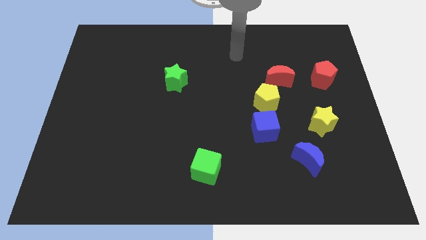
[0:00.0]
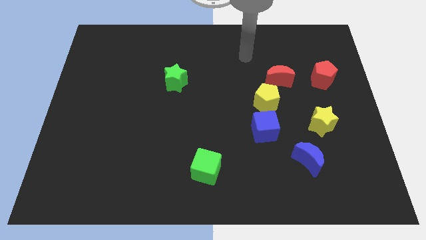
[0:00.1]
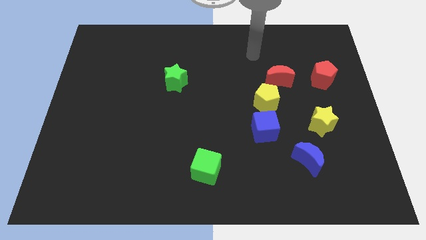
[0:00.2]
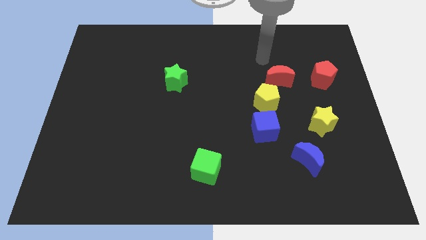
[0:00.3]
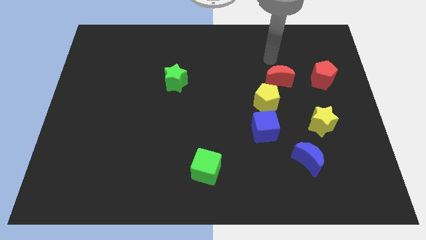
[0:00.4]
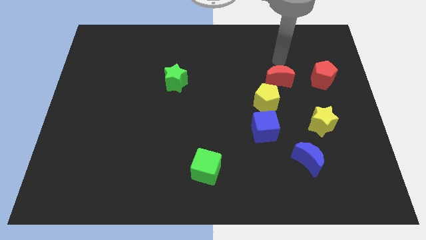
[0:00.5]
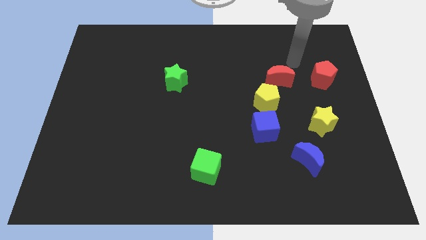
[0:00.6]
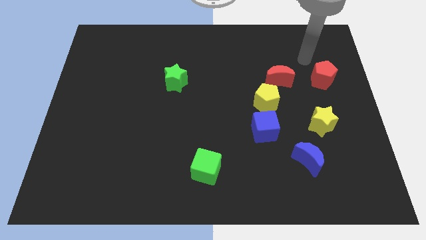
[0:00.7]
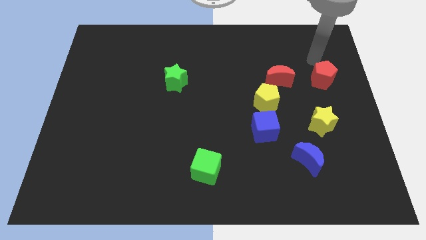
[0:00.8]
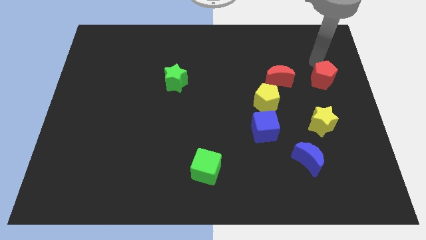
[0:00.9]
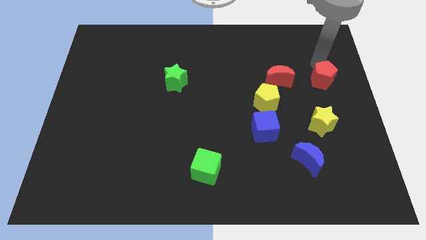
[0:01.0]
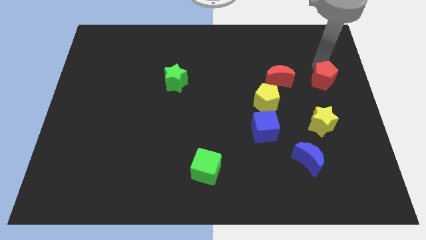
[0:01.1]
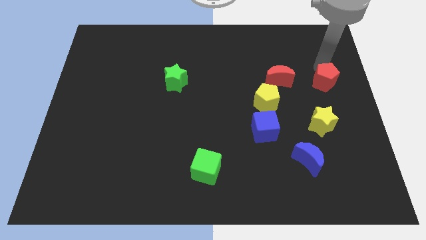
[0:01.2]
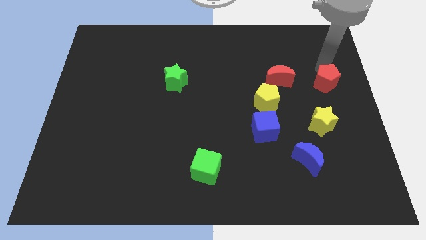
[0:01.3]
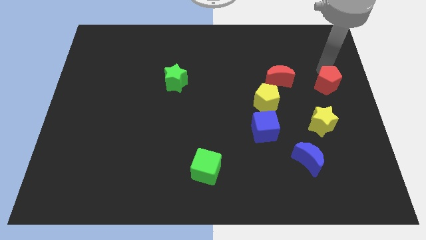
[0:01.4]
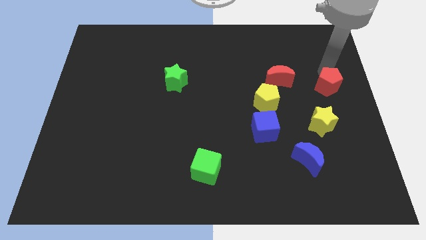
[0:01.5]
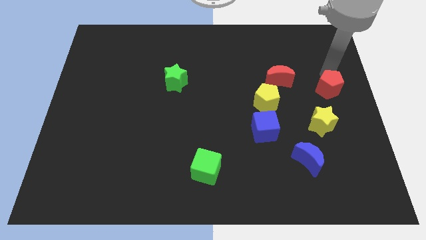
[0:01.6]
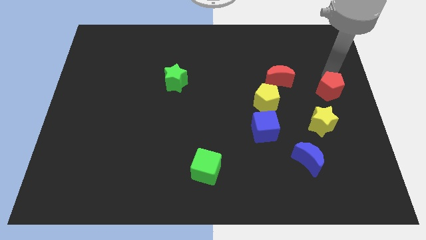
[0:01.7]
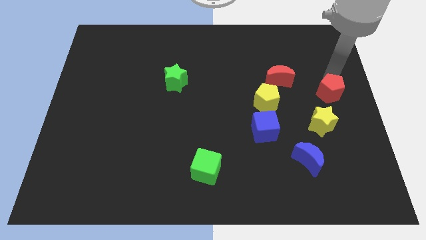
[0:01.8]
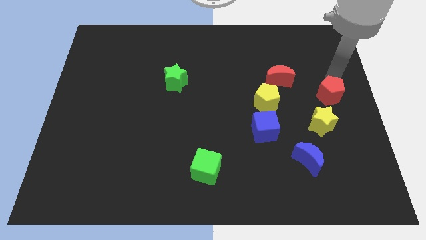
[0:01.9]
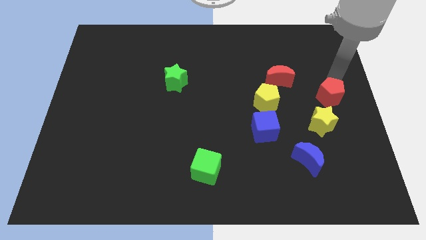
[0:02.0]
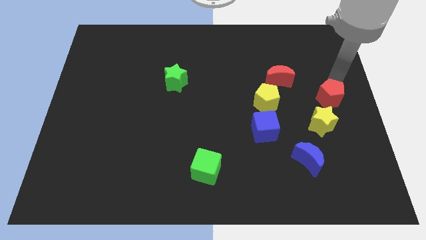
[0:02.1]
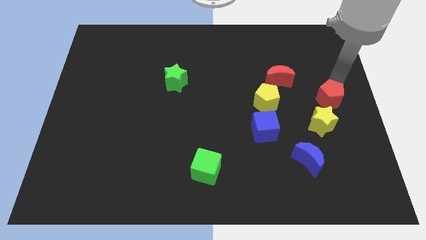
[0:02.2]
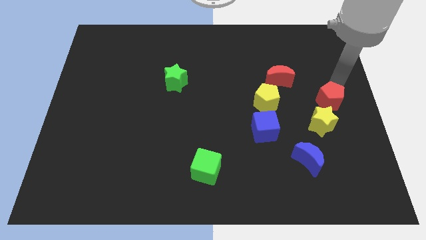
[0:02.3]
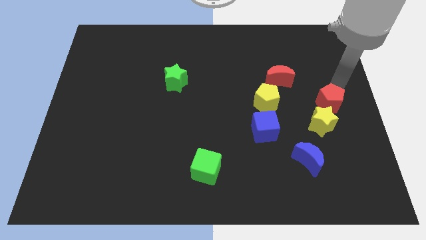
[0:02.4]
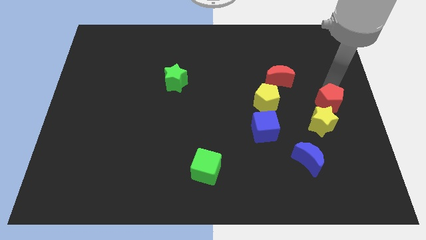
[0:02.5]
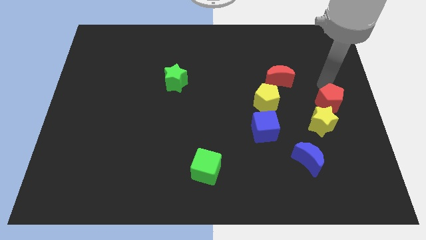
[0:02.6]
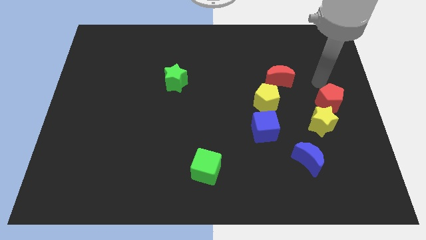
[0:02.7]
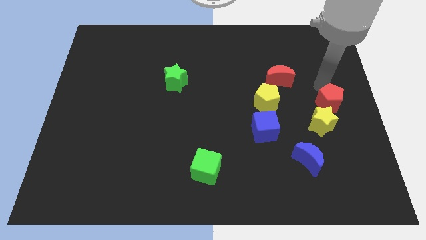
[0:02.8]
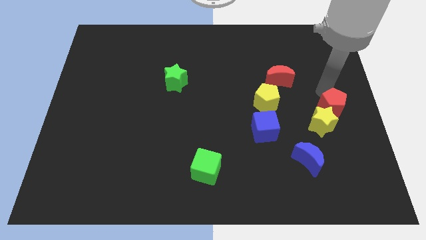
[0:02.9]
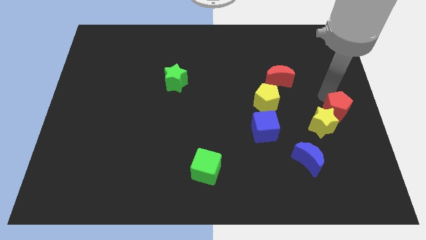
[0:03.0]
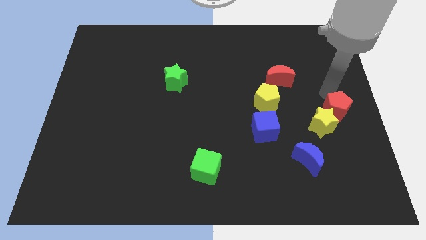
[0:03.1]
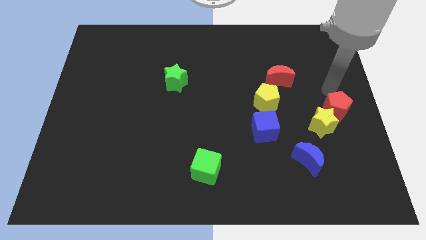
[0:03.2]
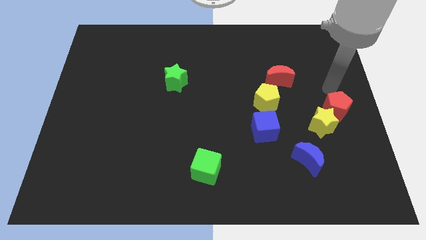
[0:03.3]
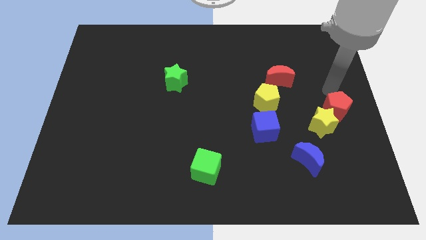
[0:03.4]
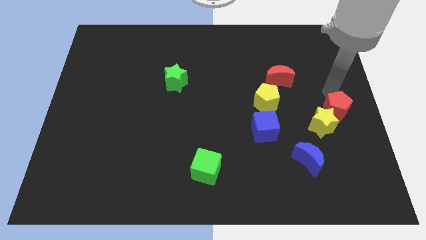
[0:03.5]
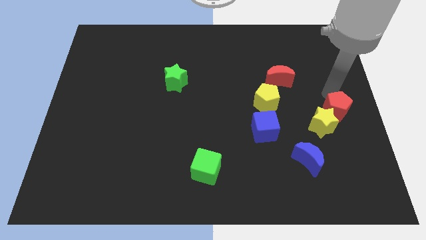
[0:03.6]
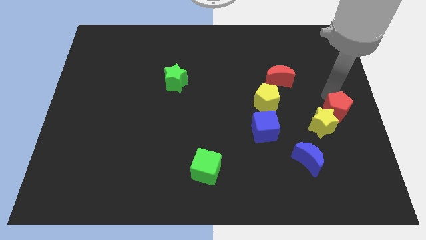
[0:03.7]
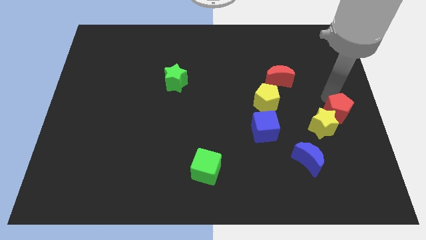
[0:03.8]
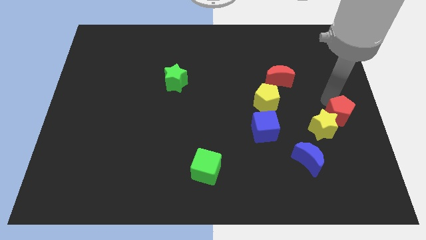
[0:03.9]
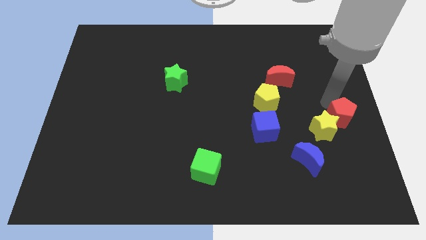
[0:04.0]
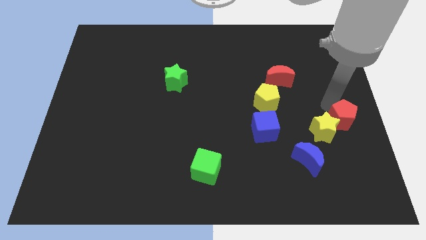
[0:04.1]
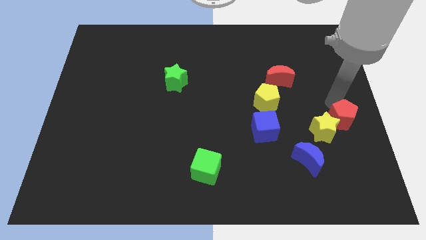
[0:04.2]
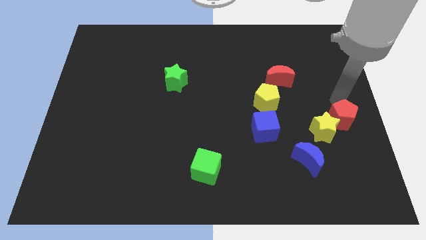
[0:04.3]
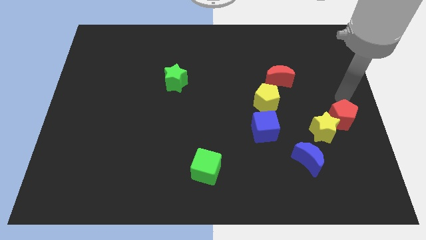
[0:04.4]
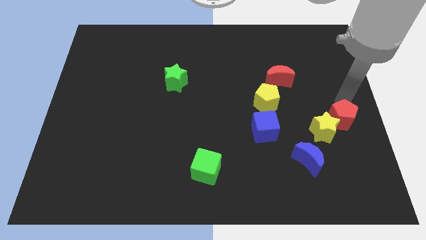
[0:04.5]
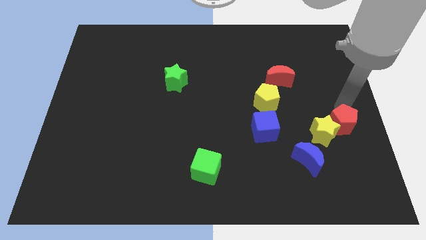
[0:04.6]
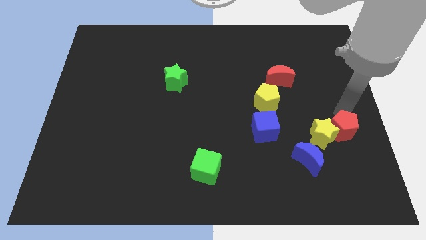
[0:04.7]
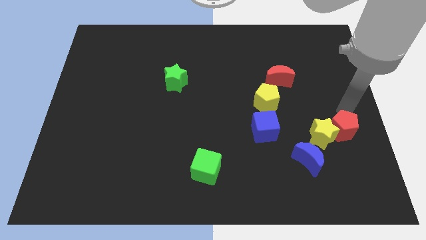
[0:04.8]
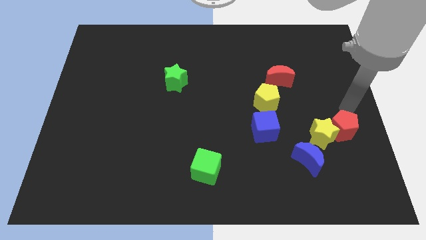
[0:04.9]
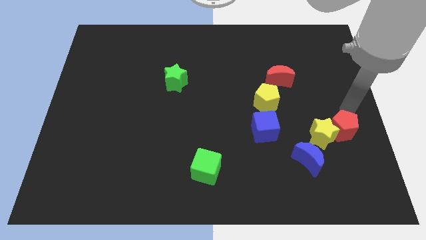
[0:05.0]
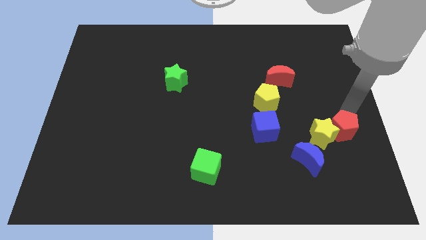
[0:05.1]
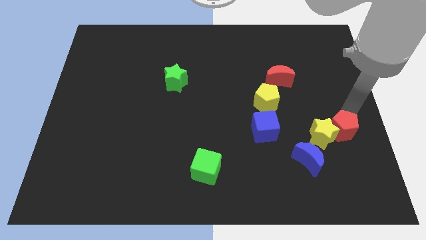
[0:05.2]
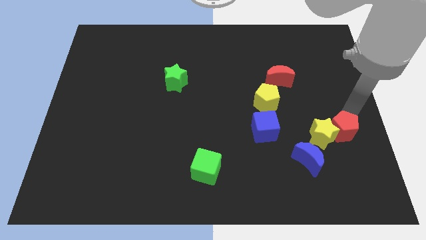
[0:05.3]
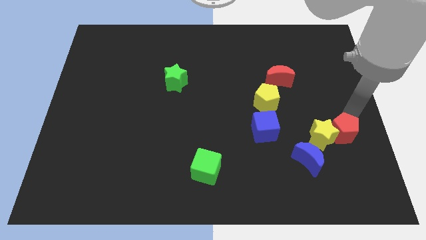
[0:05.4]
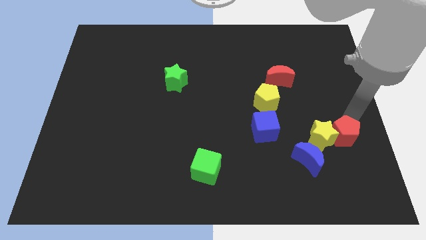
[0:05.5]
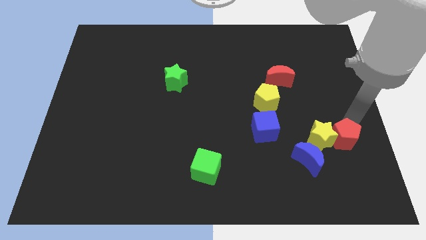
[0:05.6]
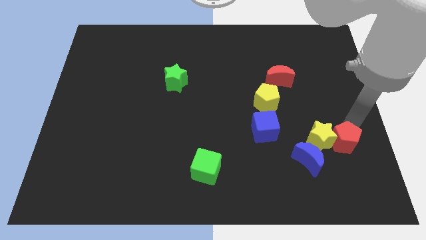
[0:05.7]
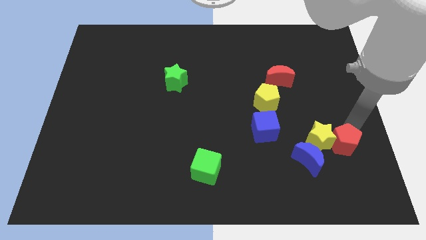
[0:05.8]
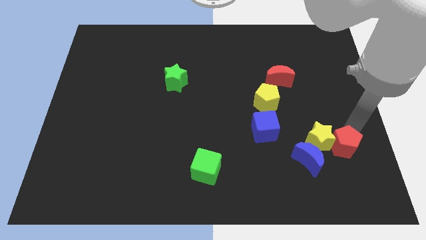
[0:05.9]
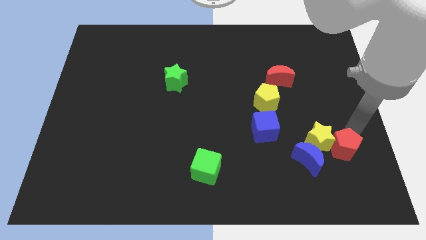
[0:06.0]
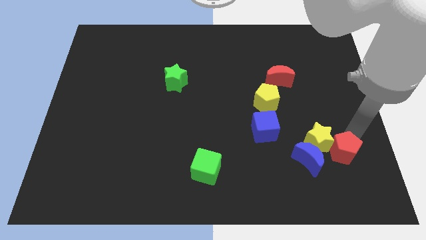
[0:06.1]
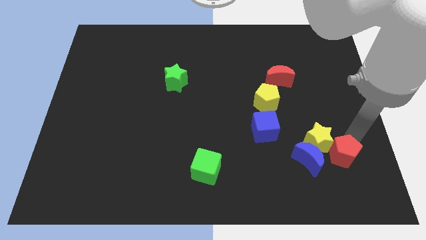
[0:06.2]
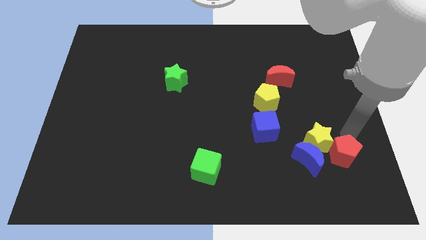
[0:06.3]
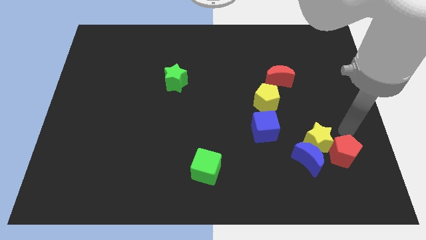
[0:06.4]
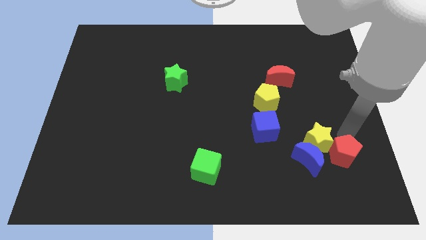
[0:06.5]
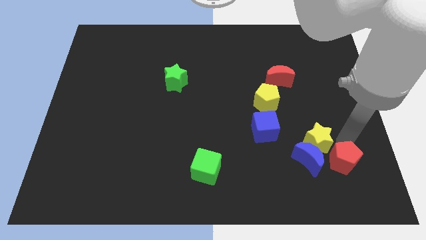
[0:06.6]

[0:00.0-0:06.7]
slide the red pentagon to the bottom right of the blue moon

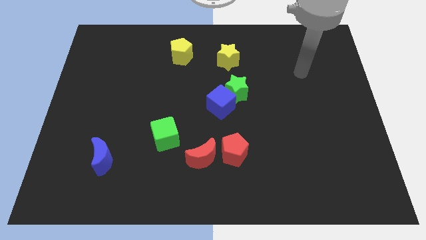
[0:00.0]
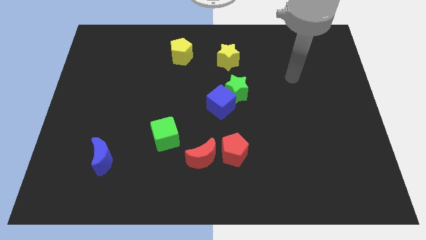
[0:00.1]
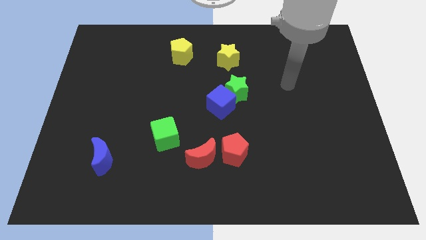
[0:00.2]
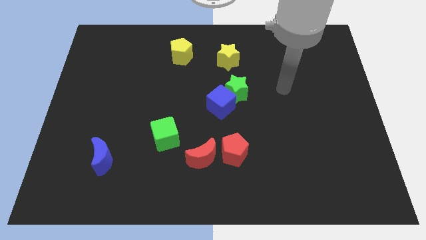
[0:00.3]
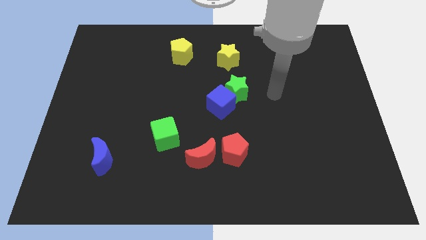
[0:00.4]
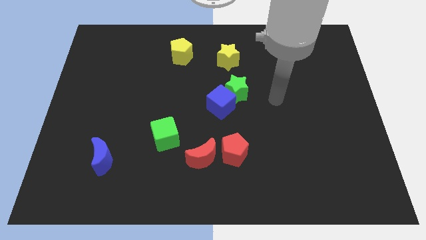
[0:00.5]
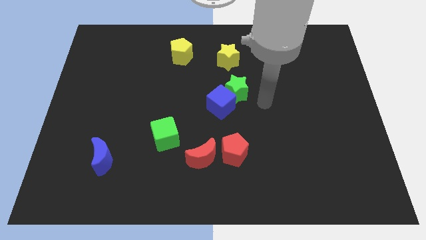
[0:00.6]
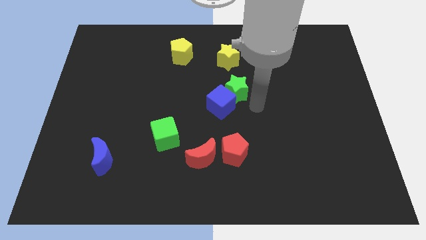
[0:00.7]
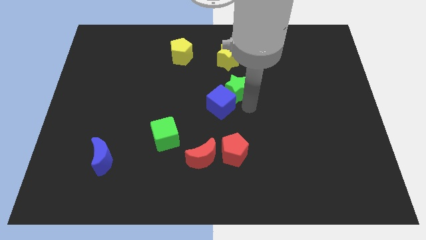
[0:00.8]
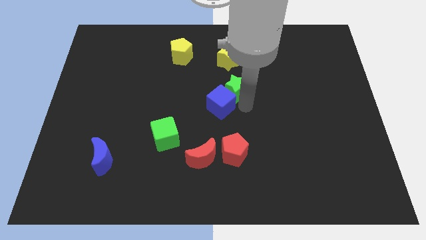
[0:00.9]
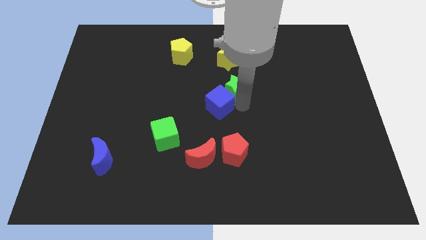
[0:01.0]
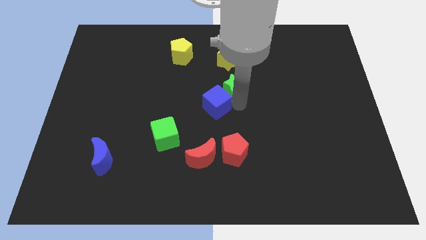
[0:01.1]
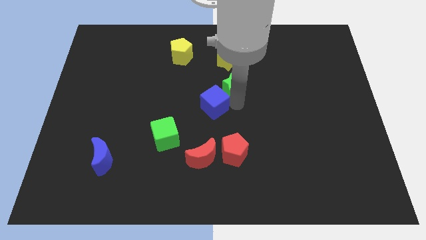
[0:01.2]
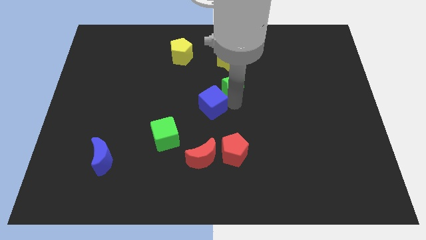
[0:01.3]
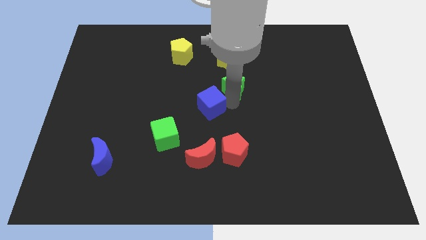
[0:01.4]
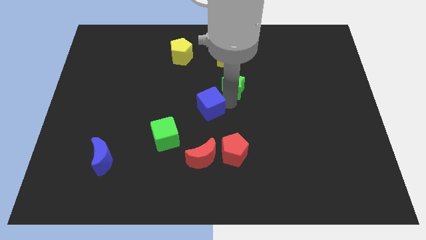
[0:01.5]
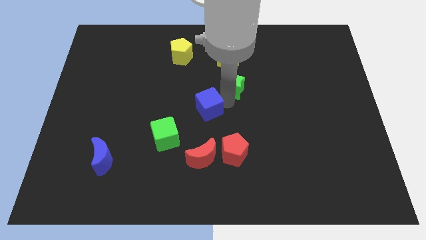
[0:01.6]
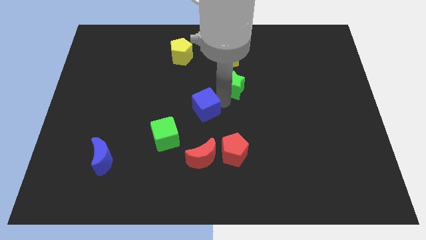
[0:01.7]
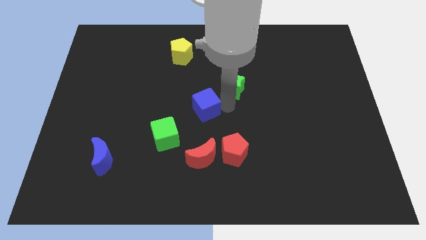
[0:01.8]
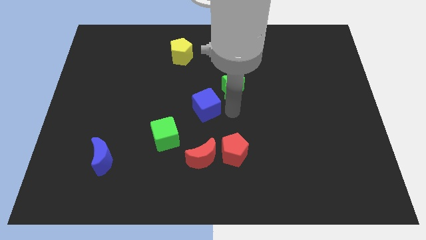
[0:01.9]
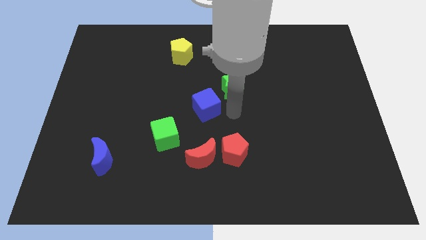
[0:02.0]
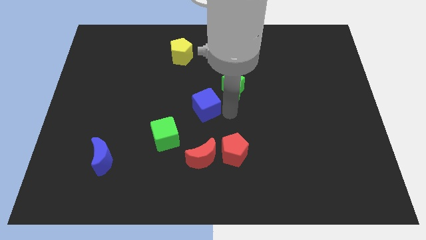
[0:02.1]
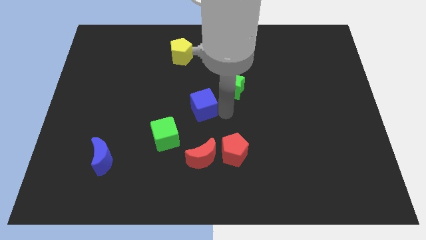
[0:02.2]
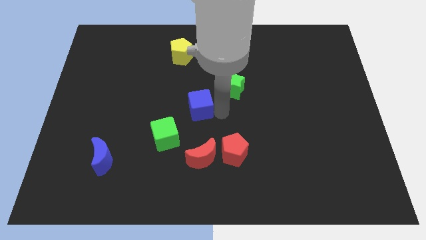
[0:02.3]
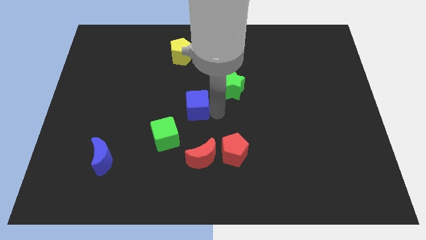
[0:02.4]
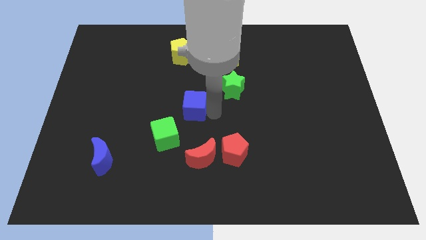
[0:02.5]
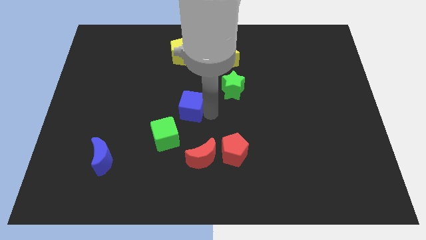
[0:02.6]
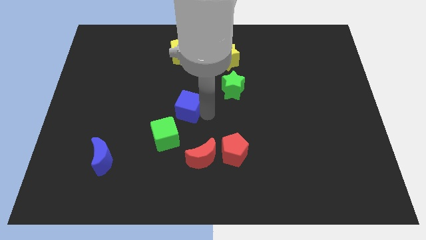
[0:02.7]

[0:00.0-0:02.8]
put the blue cube above the green cube
